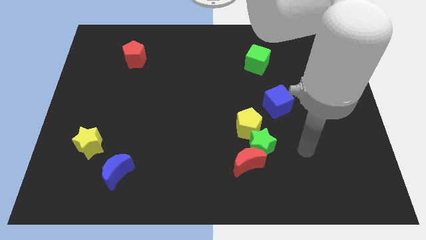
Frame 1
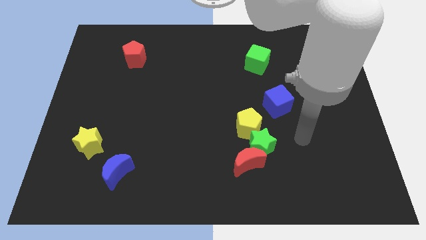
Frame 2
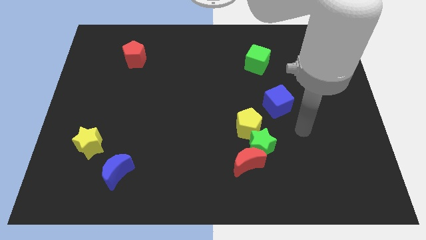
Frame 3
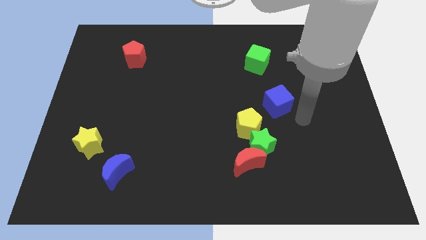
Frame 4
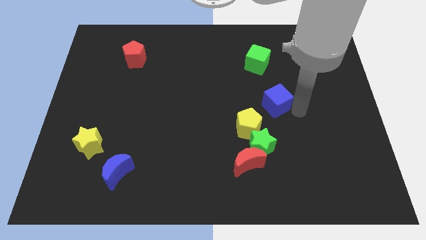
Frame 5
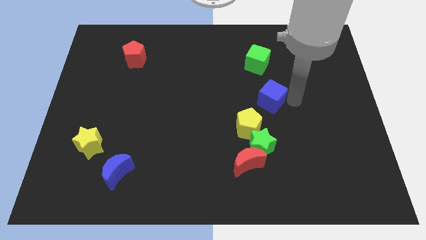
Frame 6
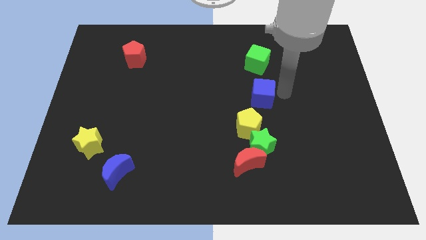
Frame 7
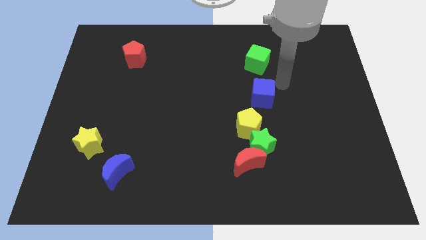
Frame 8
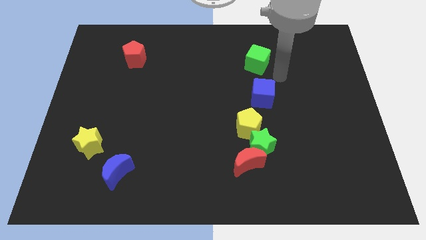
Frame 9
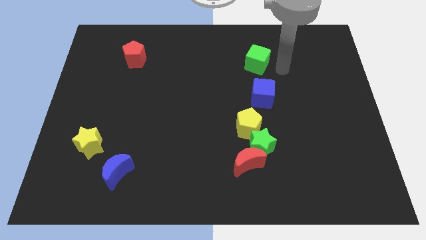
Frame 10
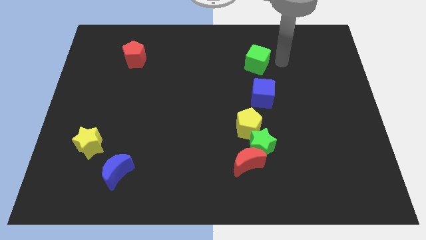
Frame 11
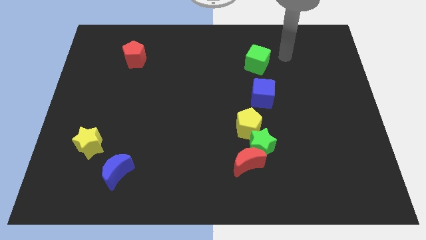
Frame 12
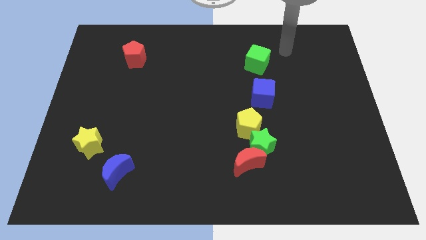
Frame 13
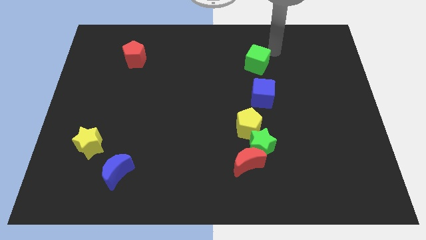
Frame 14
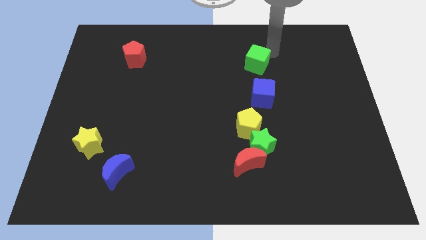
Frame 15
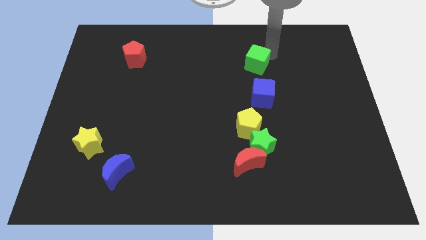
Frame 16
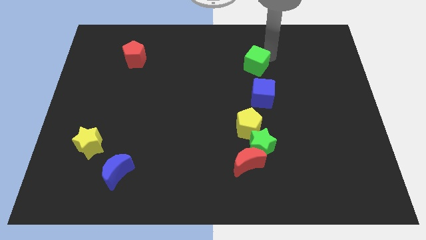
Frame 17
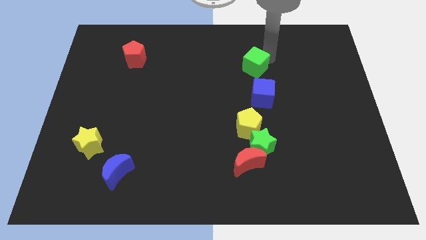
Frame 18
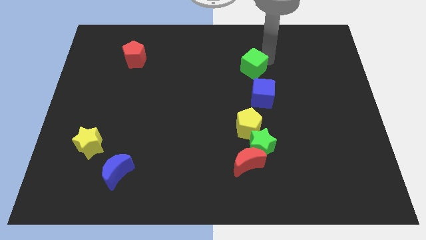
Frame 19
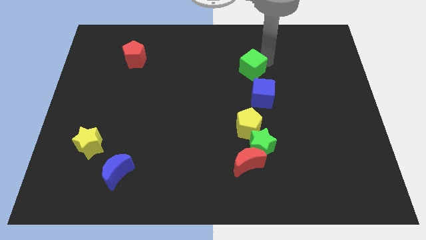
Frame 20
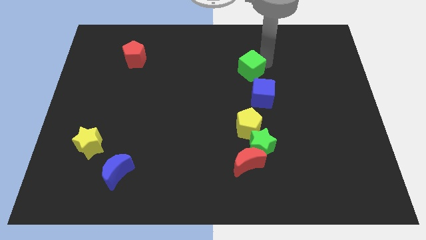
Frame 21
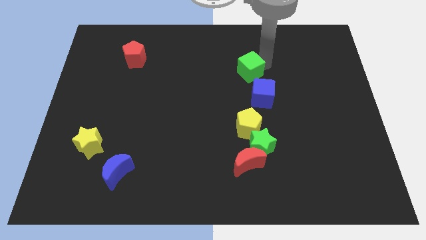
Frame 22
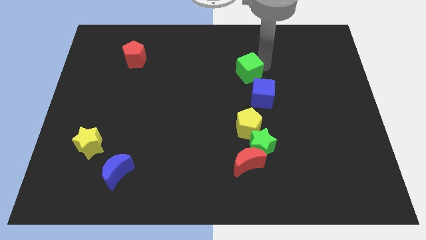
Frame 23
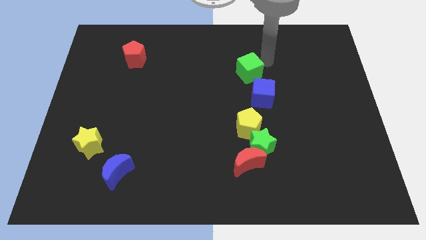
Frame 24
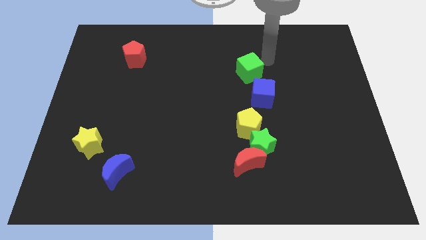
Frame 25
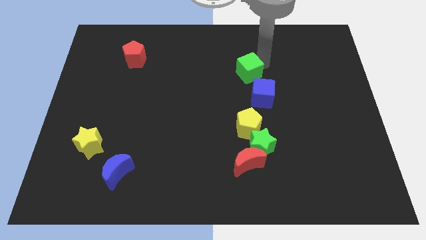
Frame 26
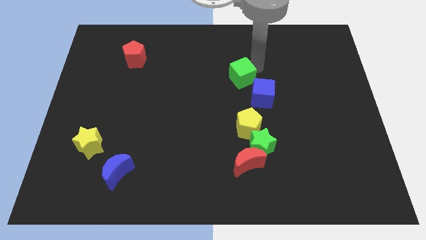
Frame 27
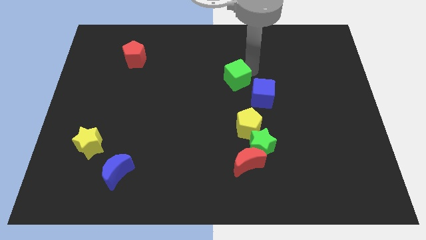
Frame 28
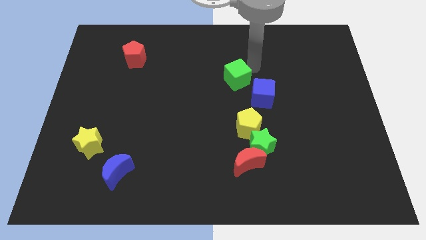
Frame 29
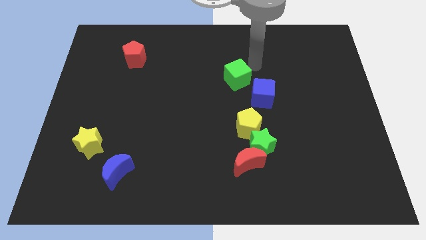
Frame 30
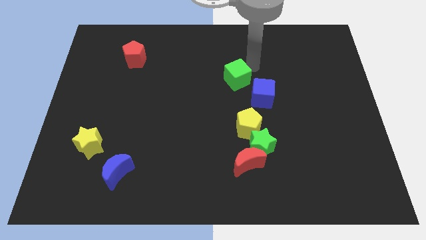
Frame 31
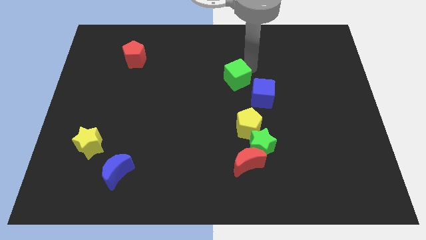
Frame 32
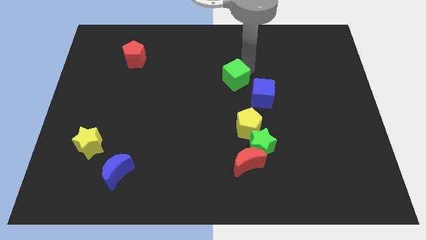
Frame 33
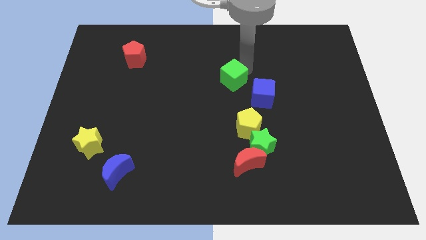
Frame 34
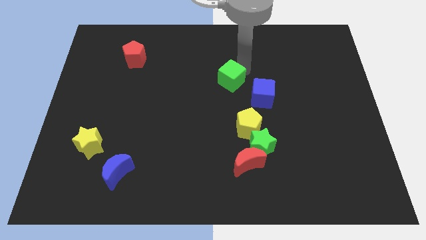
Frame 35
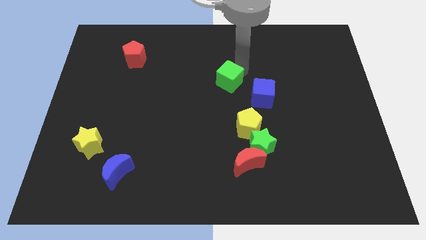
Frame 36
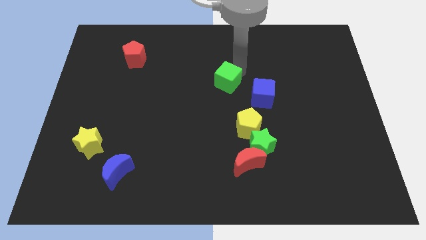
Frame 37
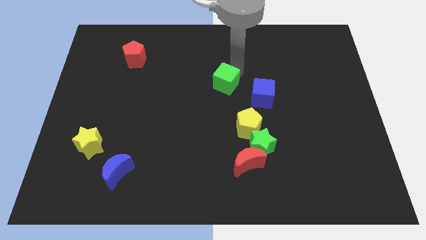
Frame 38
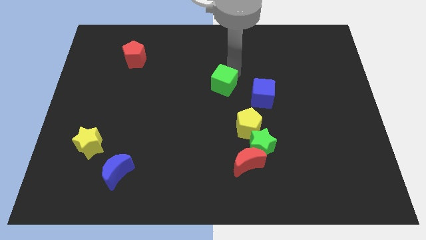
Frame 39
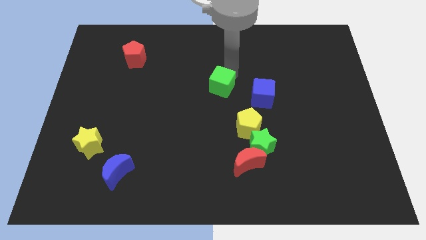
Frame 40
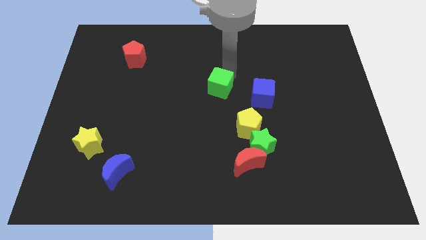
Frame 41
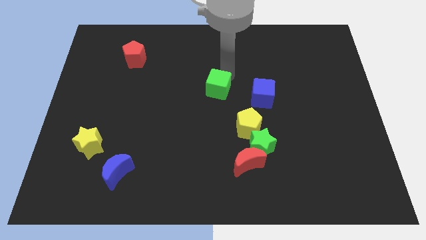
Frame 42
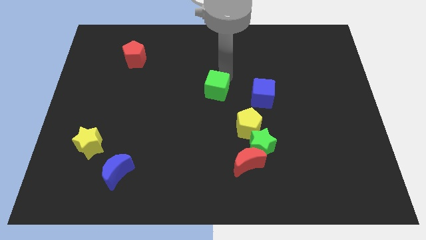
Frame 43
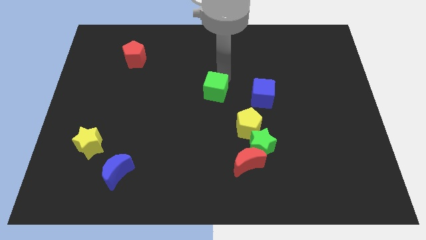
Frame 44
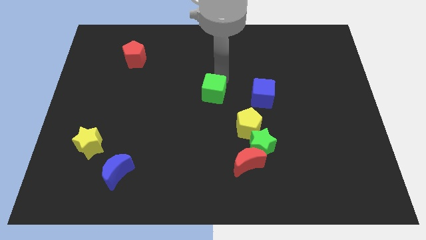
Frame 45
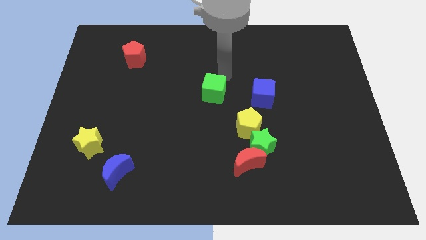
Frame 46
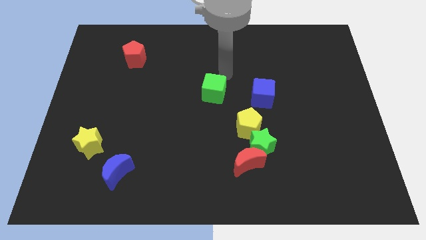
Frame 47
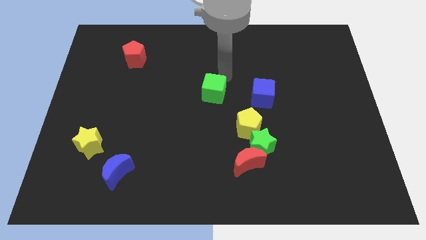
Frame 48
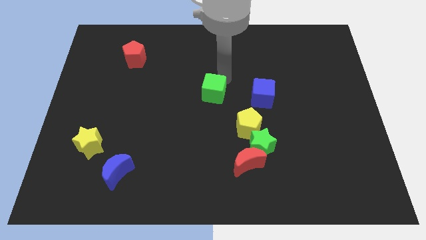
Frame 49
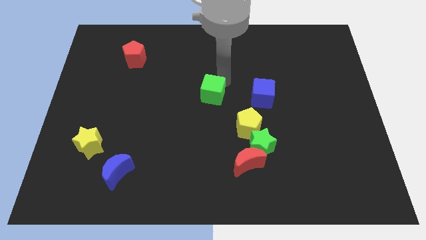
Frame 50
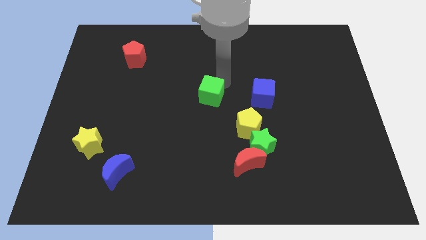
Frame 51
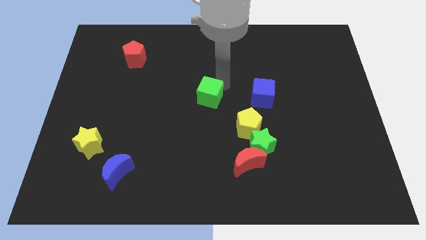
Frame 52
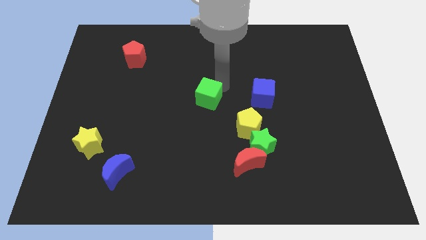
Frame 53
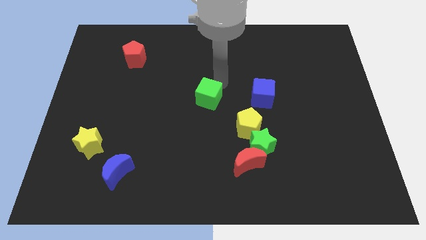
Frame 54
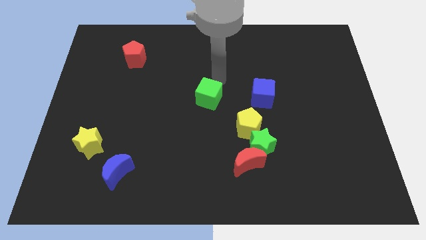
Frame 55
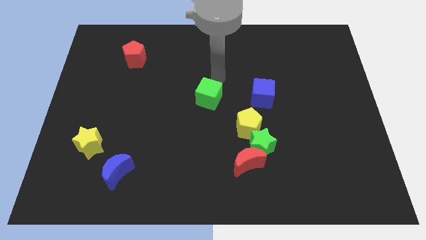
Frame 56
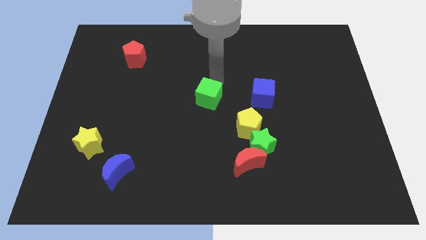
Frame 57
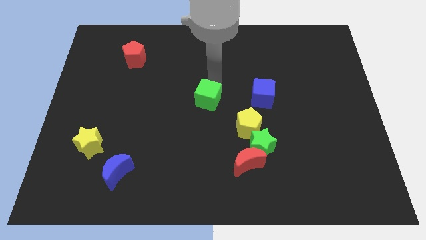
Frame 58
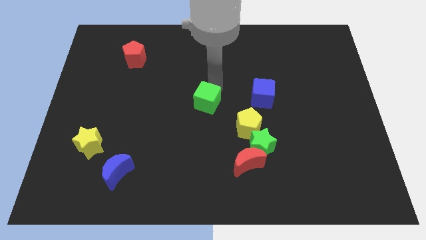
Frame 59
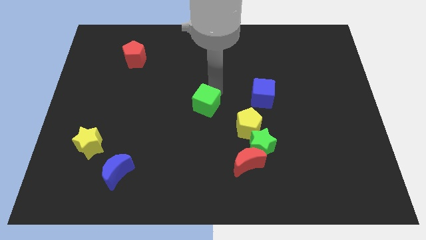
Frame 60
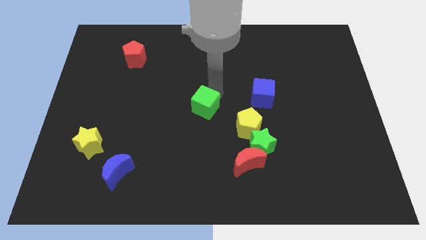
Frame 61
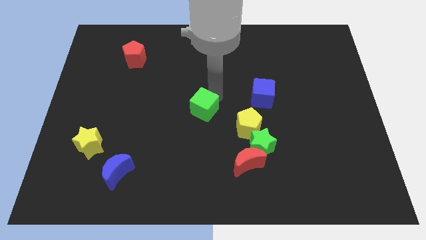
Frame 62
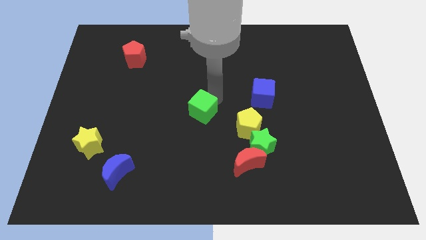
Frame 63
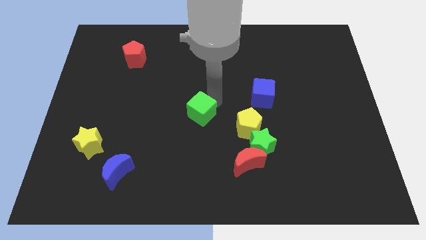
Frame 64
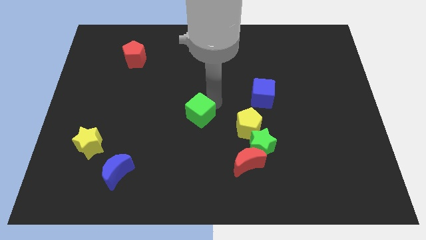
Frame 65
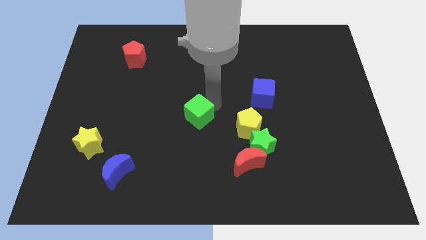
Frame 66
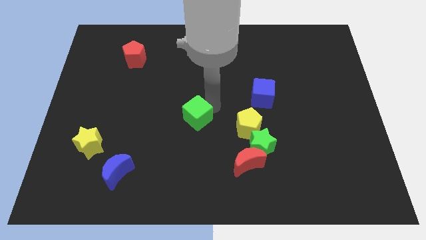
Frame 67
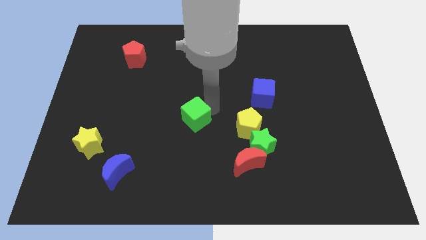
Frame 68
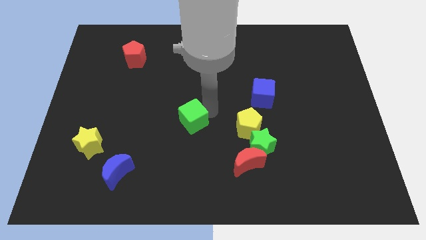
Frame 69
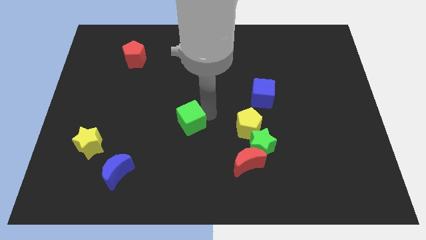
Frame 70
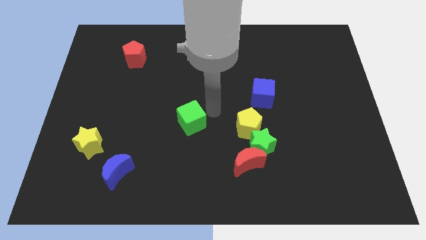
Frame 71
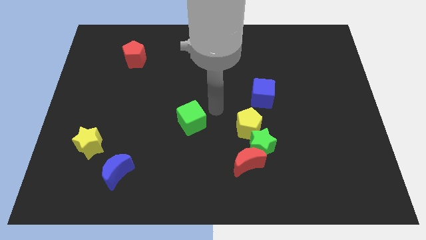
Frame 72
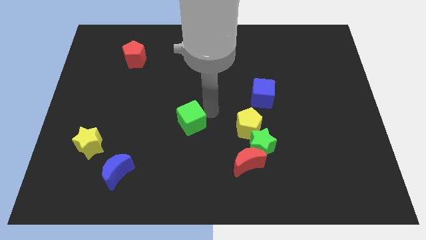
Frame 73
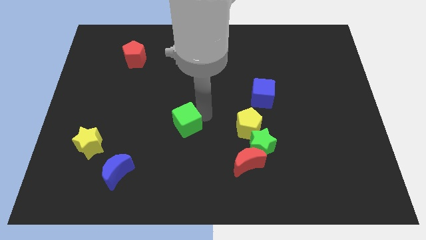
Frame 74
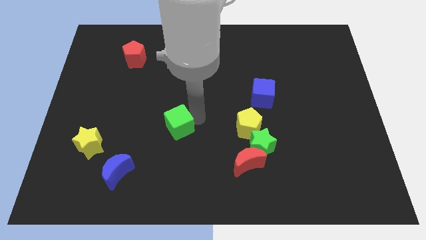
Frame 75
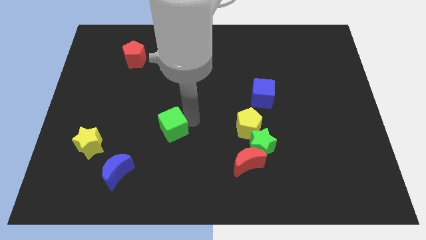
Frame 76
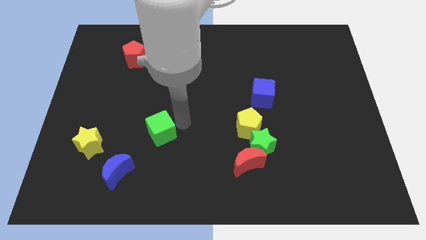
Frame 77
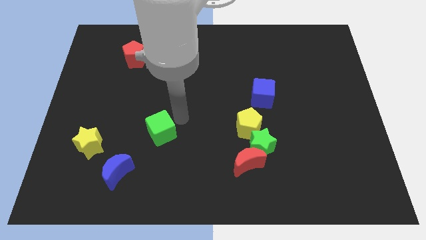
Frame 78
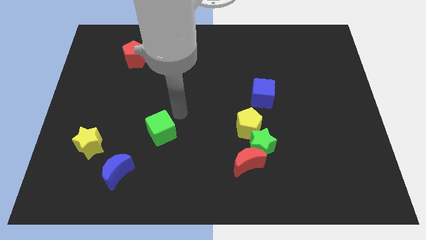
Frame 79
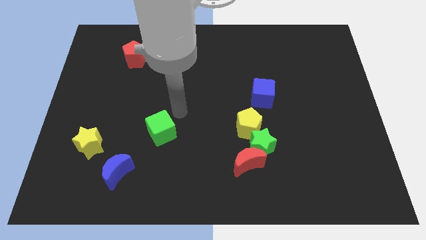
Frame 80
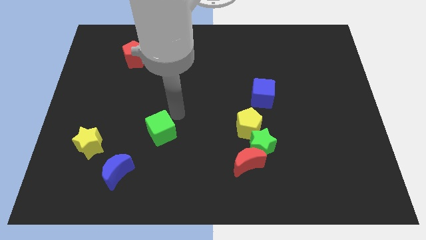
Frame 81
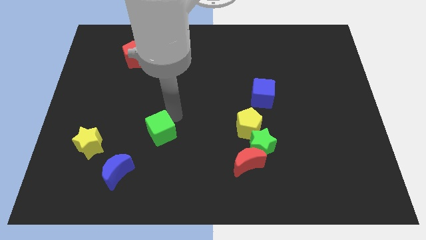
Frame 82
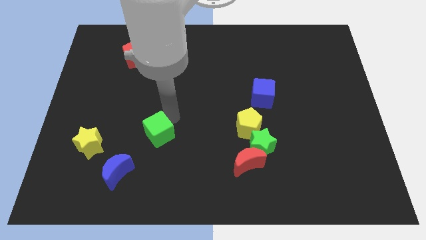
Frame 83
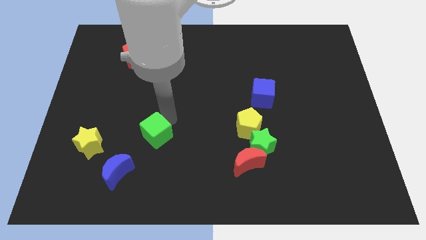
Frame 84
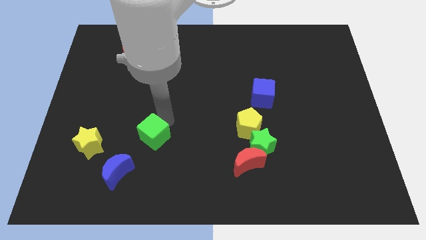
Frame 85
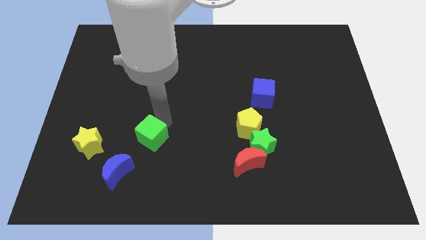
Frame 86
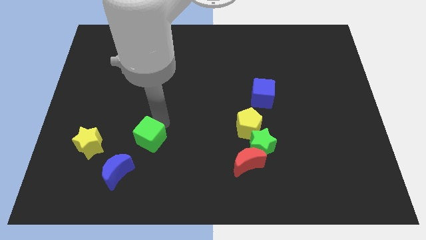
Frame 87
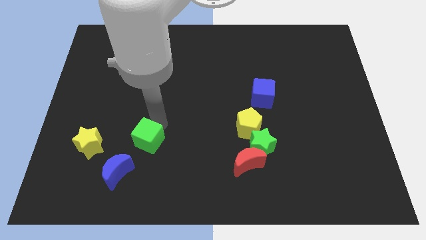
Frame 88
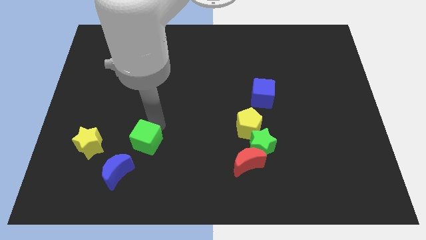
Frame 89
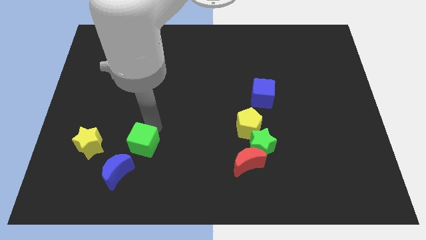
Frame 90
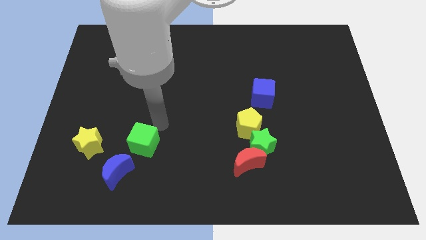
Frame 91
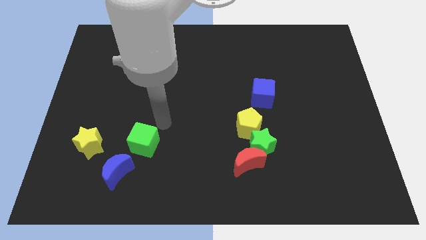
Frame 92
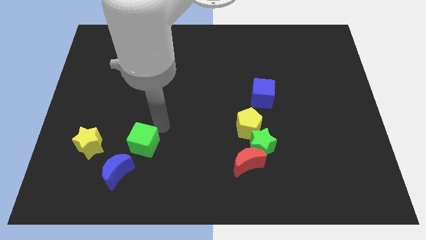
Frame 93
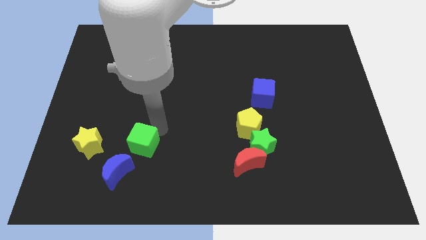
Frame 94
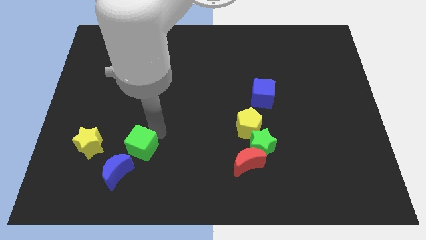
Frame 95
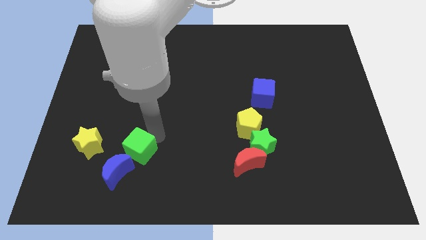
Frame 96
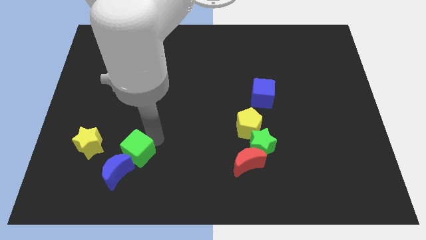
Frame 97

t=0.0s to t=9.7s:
put the green cube next to the blue moon
